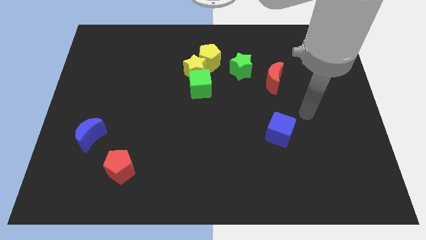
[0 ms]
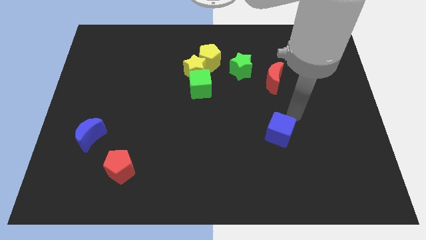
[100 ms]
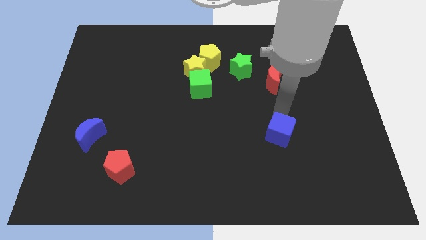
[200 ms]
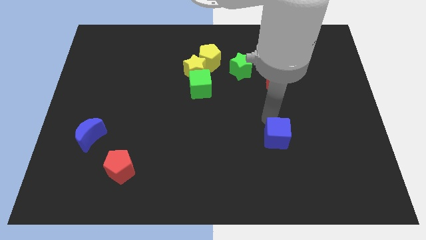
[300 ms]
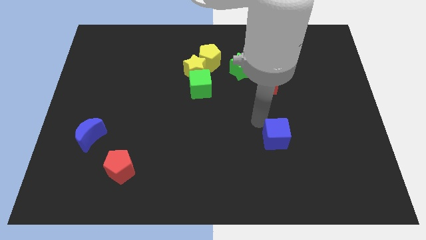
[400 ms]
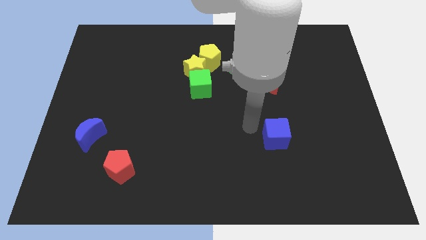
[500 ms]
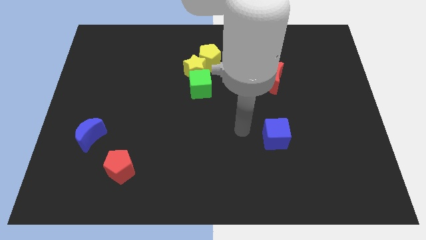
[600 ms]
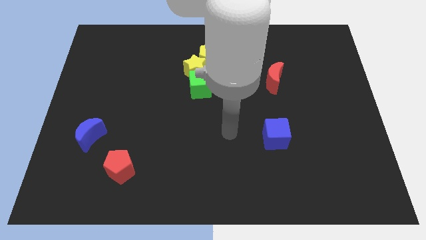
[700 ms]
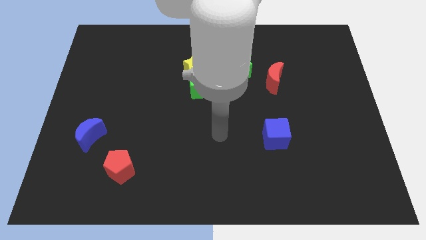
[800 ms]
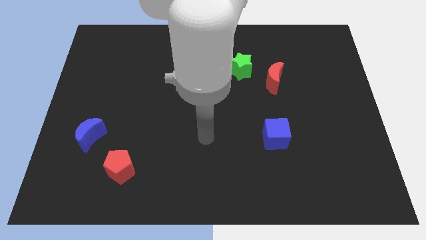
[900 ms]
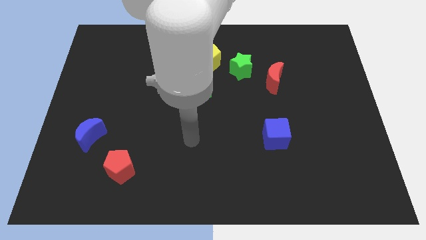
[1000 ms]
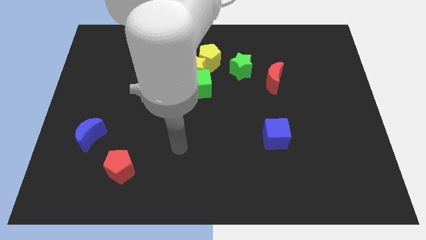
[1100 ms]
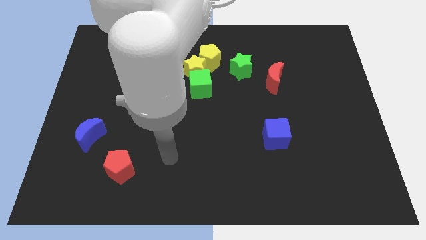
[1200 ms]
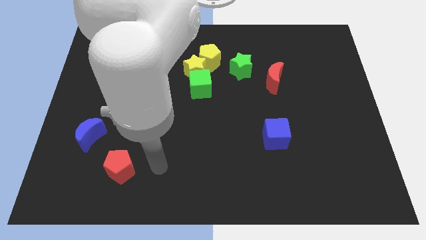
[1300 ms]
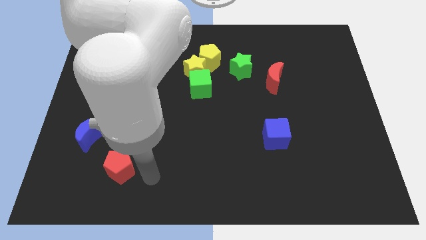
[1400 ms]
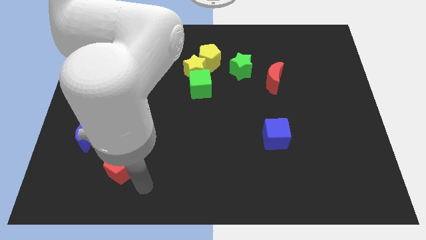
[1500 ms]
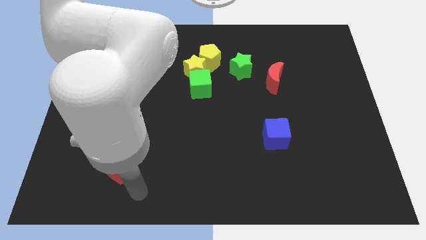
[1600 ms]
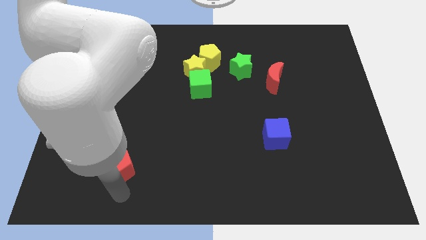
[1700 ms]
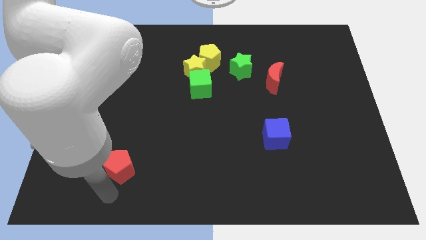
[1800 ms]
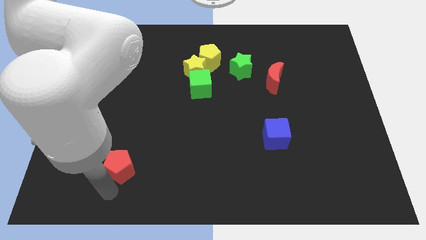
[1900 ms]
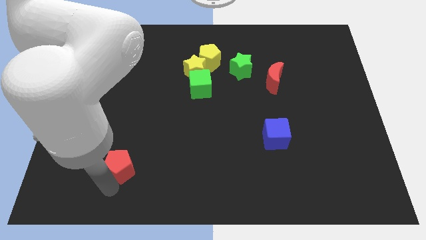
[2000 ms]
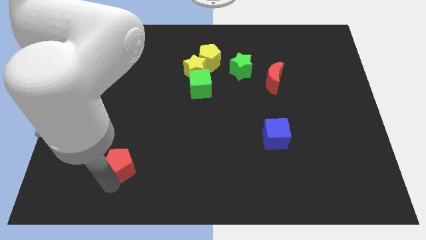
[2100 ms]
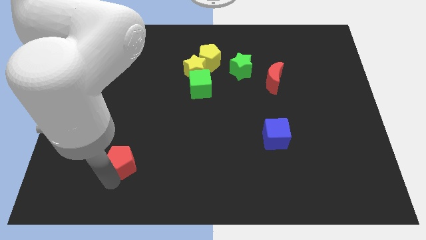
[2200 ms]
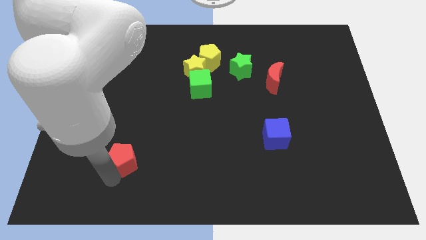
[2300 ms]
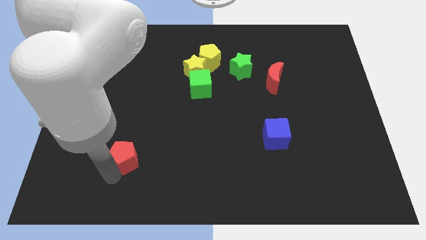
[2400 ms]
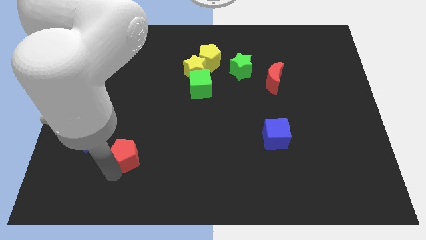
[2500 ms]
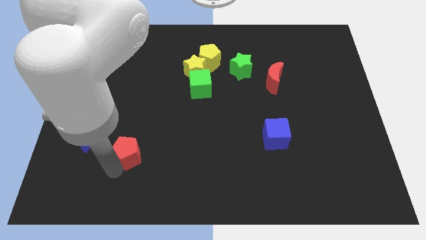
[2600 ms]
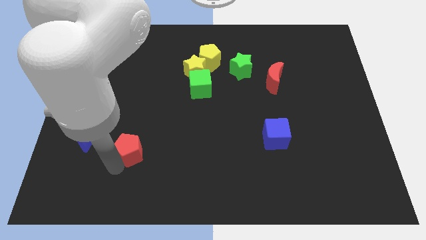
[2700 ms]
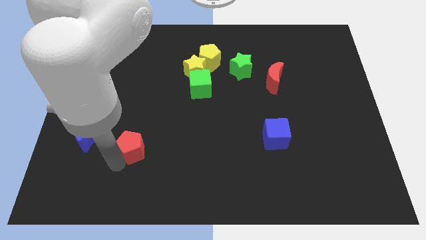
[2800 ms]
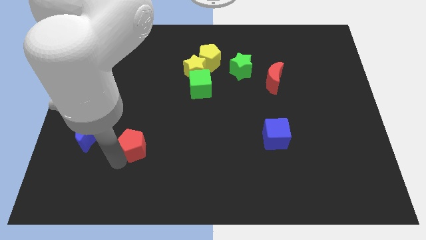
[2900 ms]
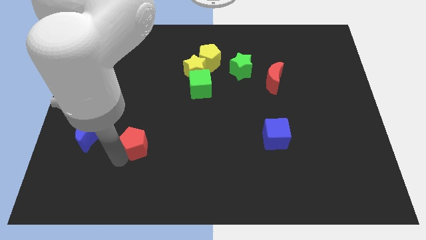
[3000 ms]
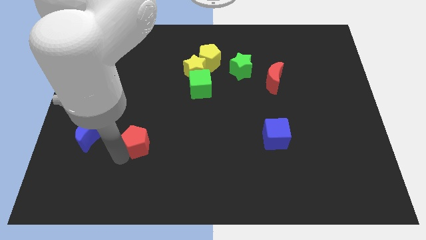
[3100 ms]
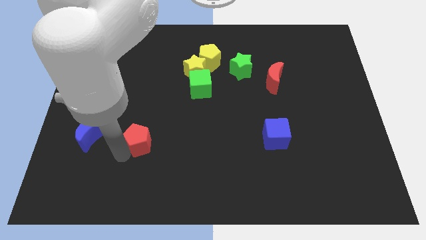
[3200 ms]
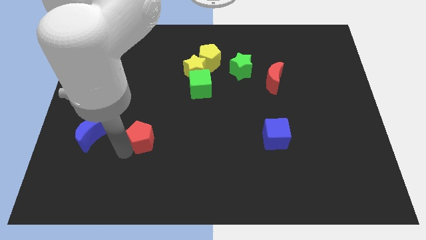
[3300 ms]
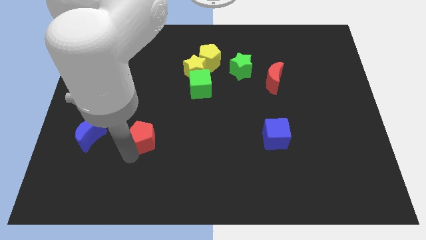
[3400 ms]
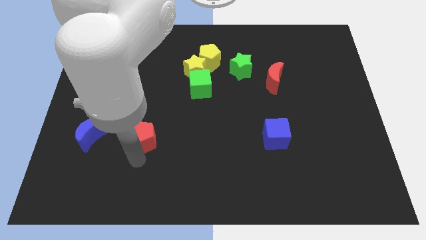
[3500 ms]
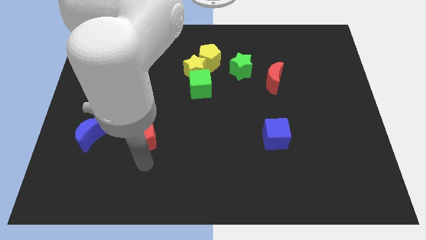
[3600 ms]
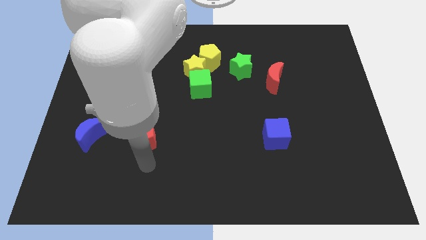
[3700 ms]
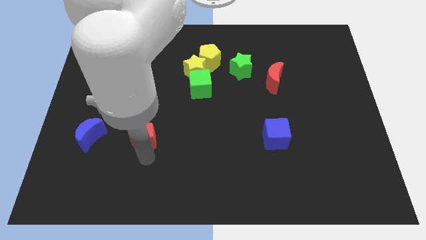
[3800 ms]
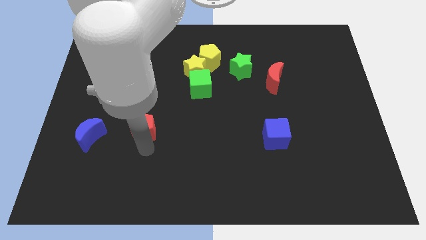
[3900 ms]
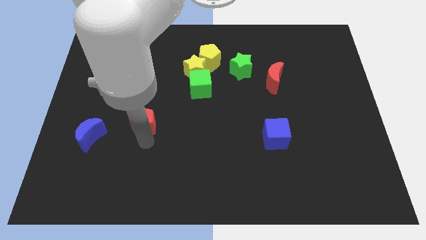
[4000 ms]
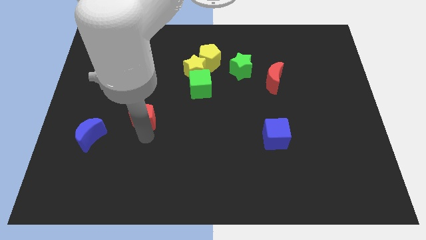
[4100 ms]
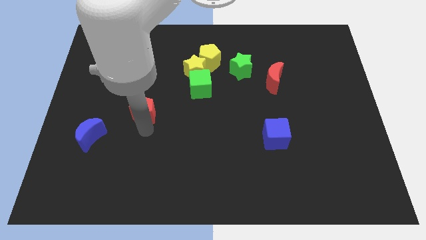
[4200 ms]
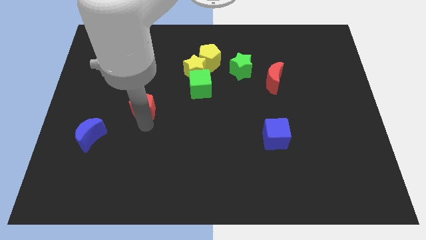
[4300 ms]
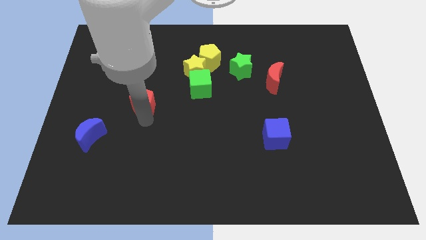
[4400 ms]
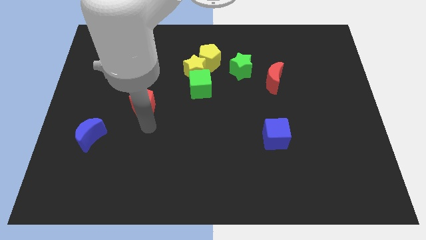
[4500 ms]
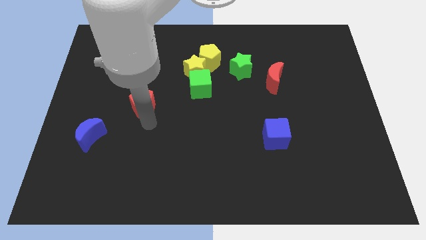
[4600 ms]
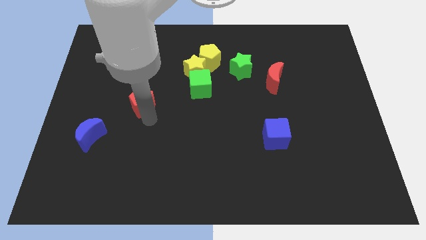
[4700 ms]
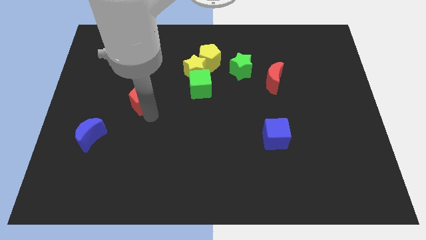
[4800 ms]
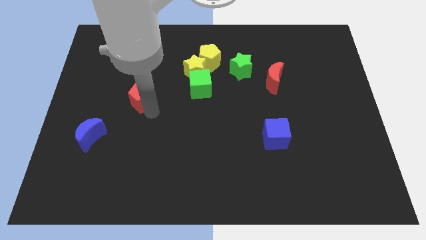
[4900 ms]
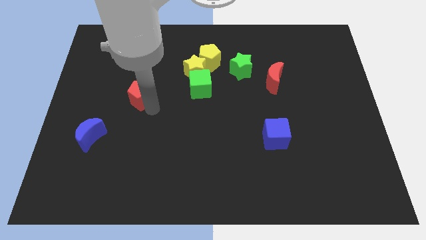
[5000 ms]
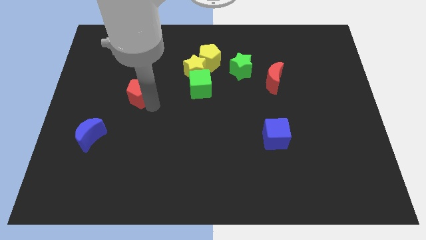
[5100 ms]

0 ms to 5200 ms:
slide the red pentagon upwards

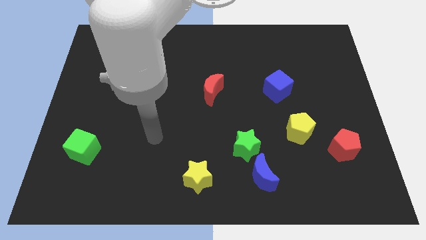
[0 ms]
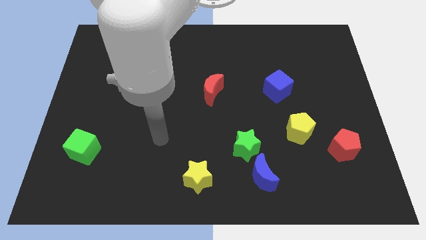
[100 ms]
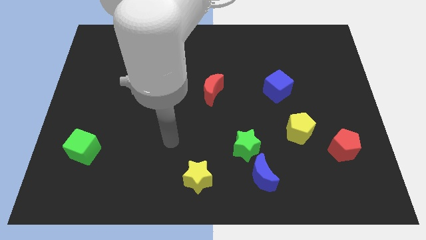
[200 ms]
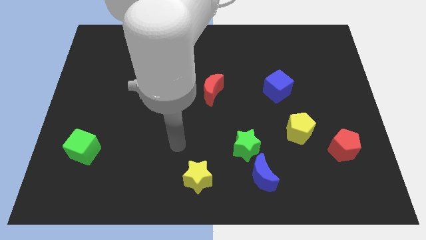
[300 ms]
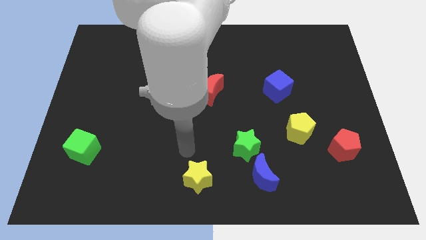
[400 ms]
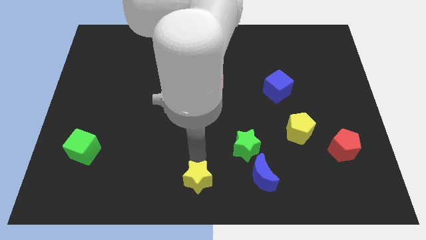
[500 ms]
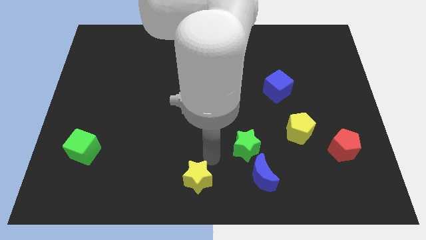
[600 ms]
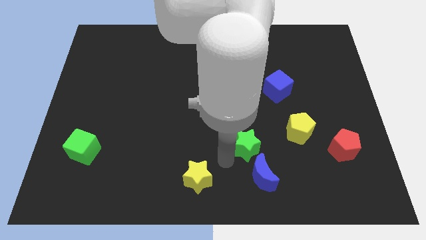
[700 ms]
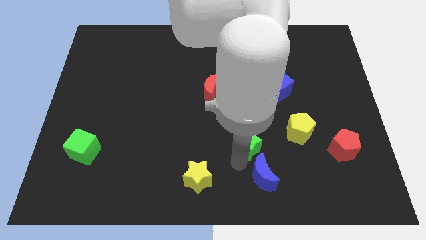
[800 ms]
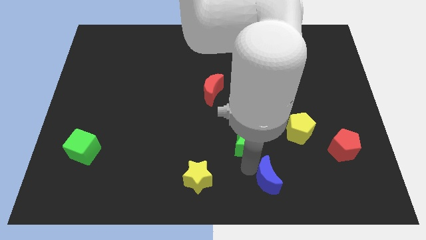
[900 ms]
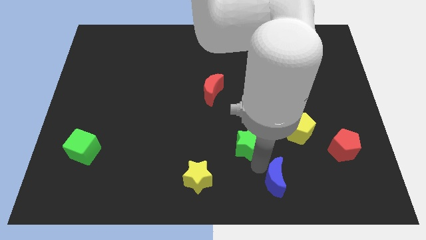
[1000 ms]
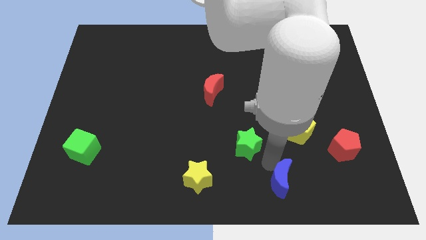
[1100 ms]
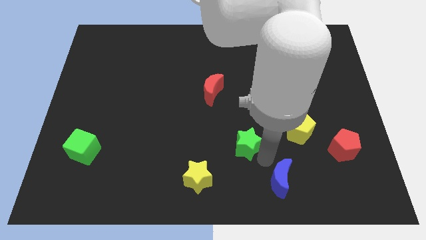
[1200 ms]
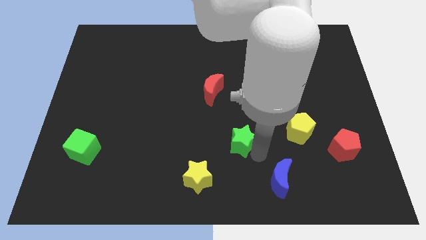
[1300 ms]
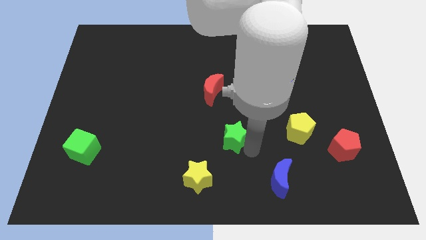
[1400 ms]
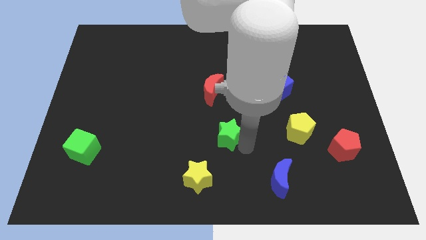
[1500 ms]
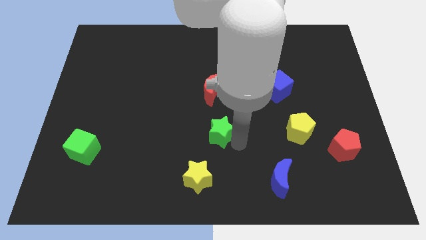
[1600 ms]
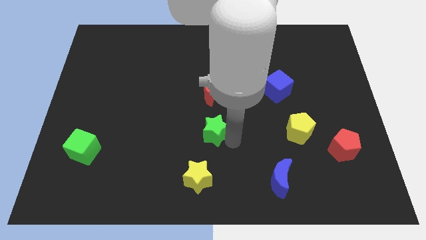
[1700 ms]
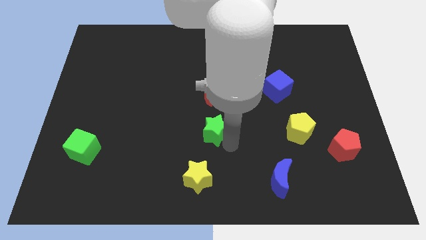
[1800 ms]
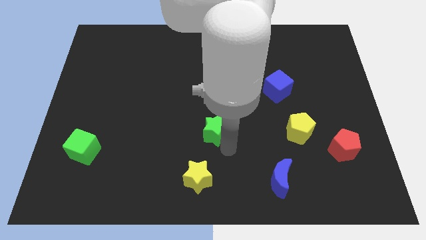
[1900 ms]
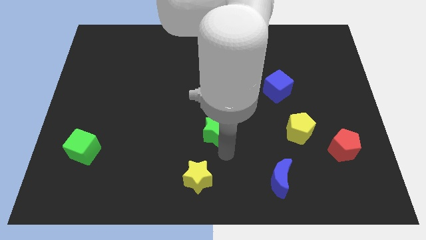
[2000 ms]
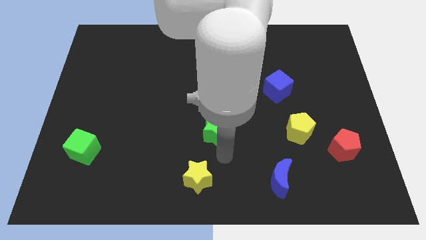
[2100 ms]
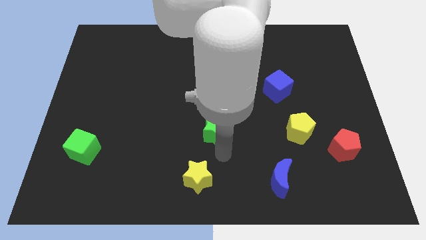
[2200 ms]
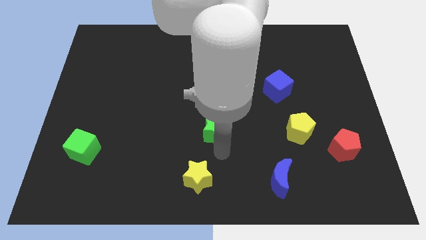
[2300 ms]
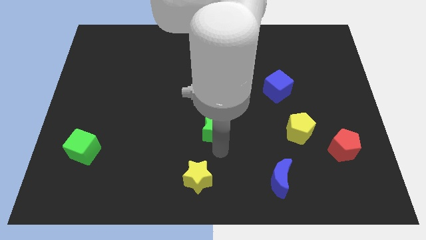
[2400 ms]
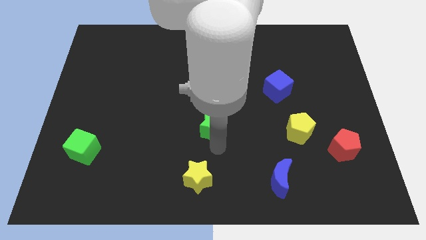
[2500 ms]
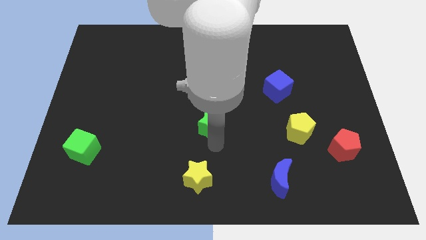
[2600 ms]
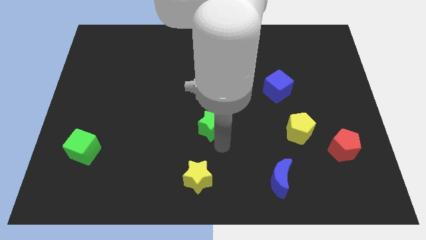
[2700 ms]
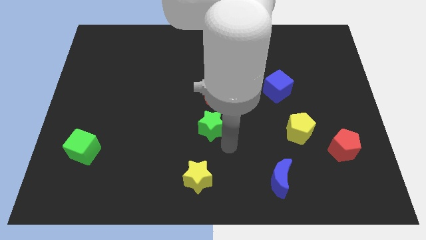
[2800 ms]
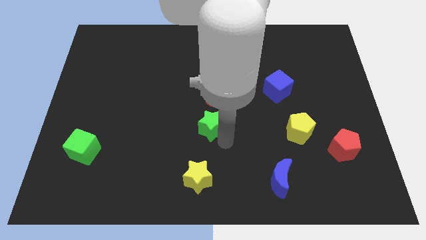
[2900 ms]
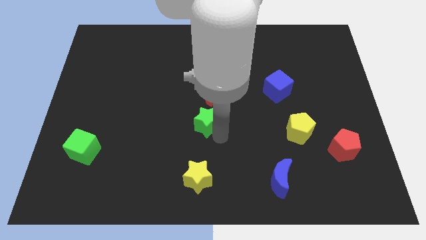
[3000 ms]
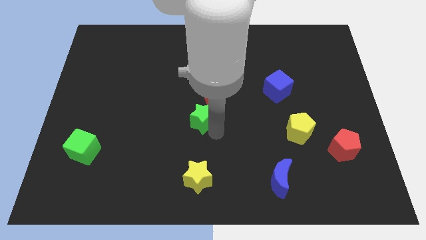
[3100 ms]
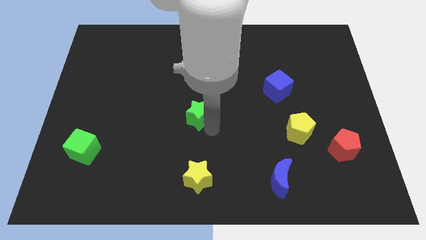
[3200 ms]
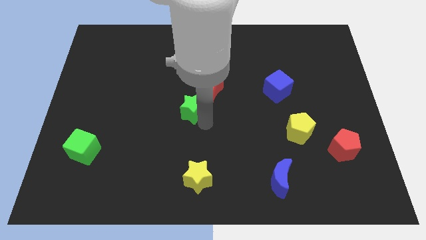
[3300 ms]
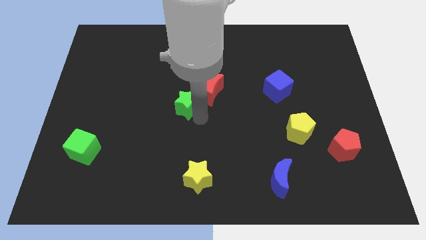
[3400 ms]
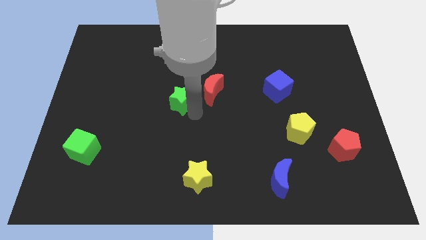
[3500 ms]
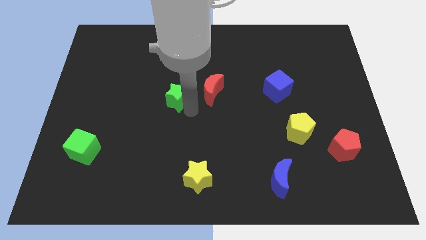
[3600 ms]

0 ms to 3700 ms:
slide the green star upwards and left diagonally
